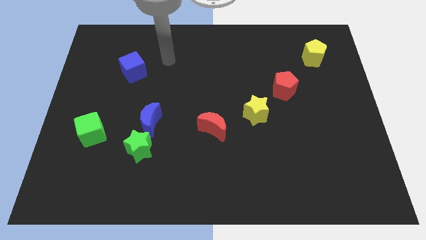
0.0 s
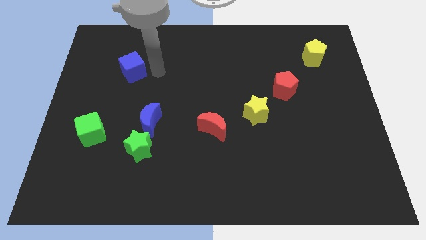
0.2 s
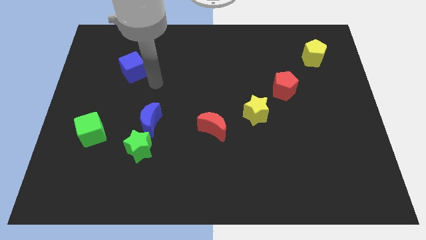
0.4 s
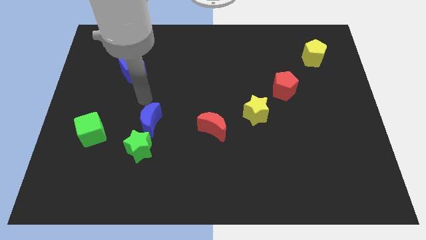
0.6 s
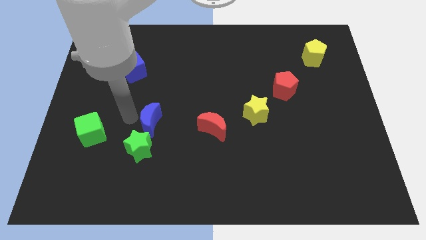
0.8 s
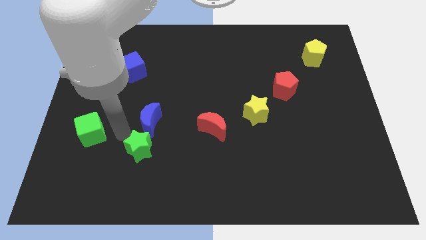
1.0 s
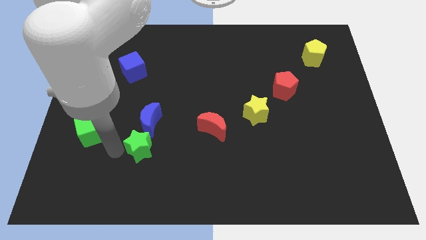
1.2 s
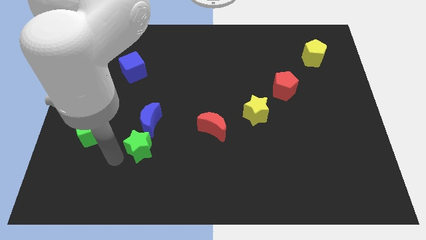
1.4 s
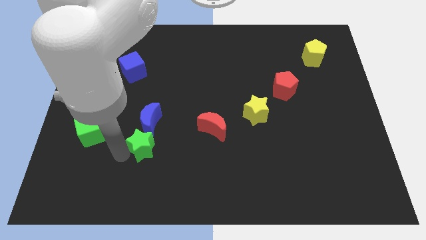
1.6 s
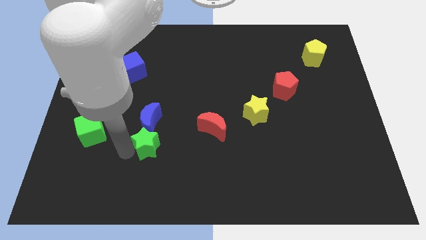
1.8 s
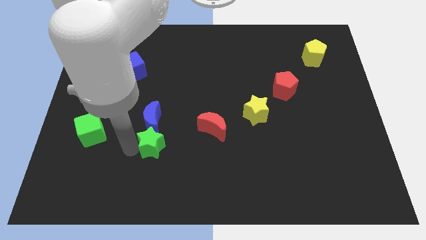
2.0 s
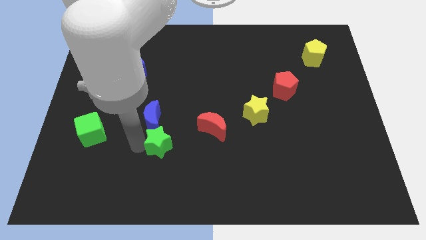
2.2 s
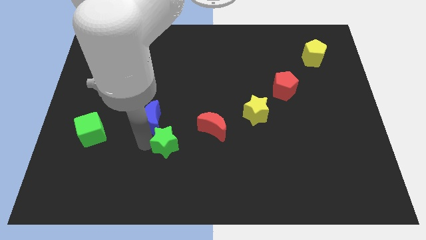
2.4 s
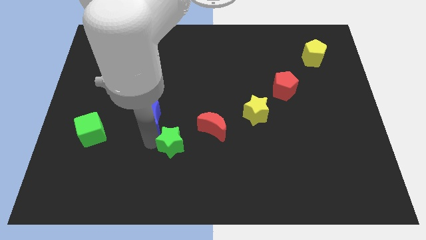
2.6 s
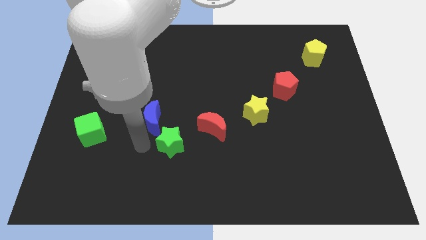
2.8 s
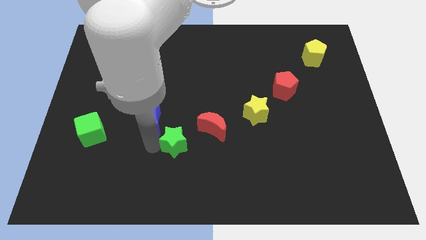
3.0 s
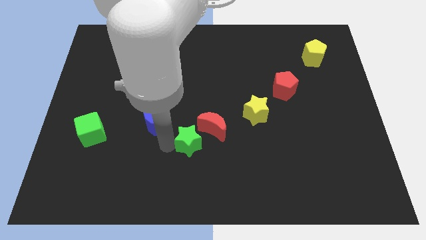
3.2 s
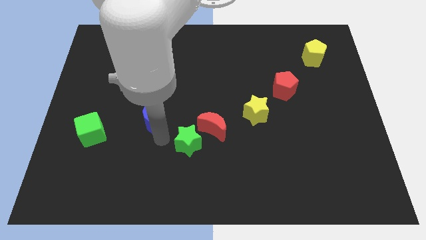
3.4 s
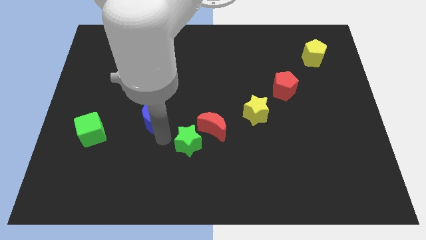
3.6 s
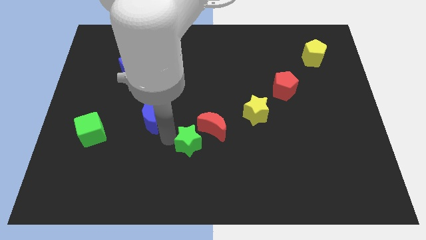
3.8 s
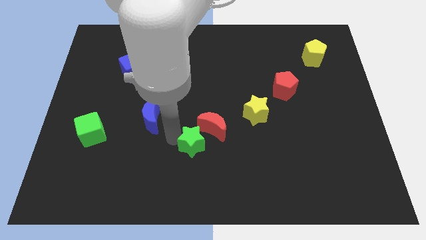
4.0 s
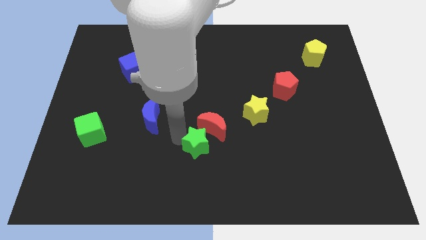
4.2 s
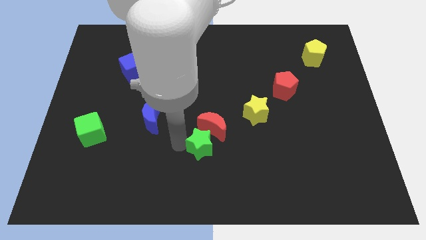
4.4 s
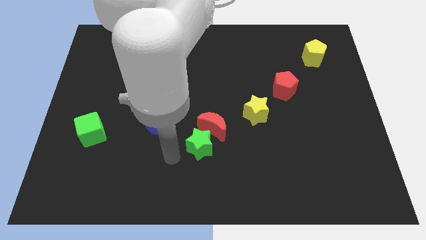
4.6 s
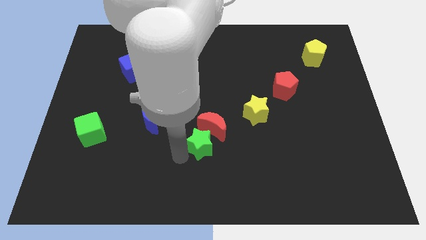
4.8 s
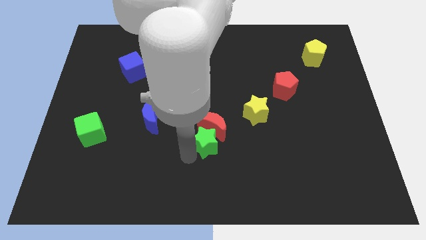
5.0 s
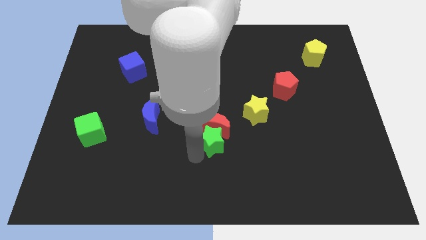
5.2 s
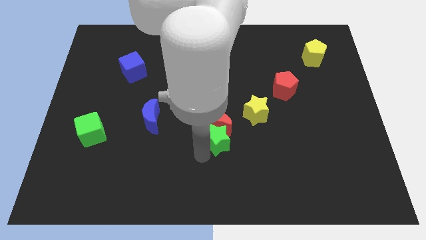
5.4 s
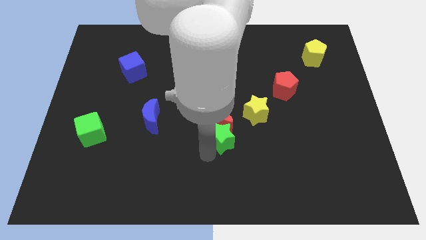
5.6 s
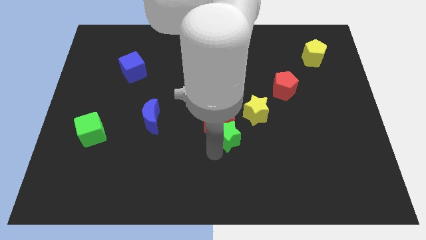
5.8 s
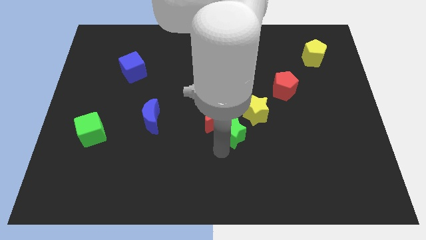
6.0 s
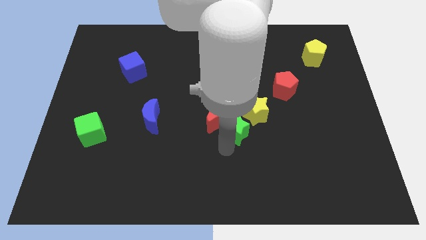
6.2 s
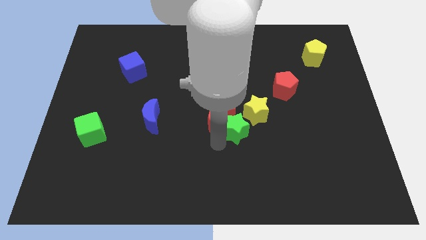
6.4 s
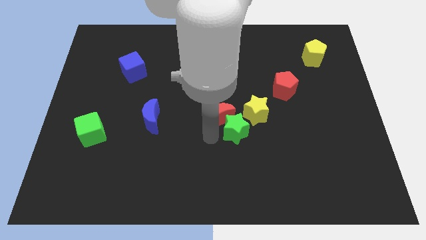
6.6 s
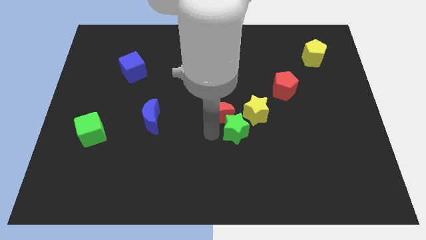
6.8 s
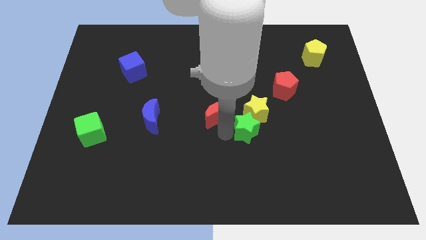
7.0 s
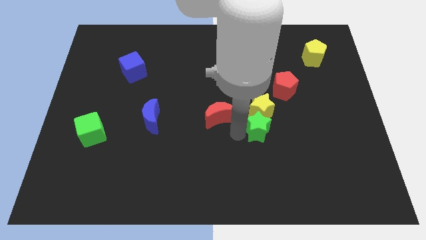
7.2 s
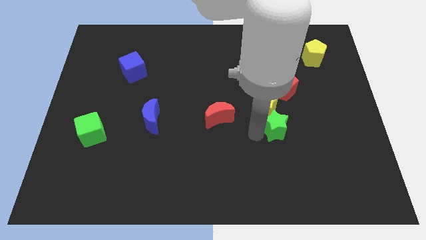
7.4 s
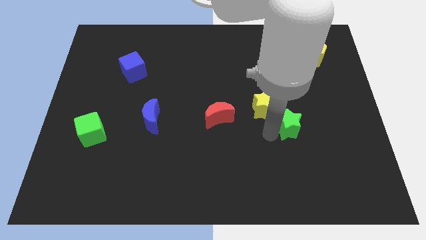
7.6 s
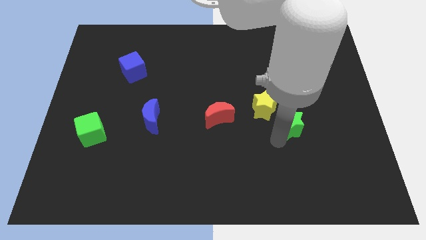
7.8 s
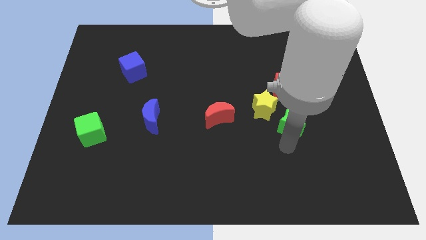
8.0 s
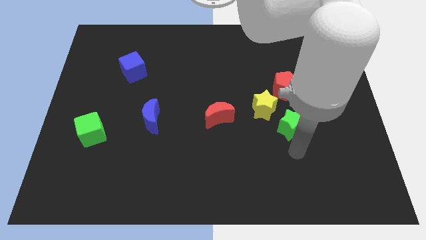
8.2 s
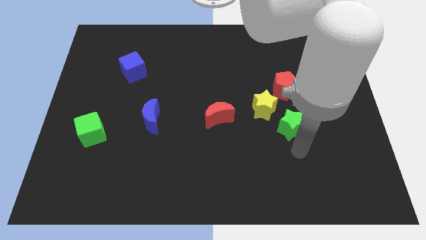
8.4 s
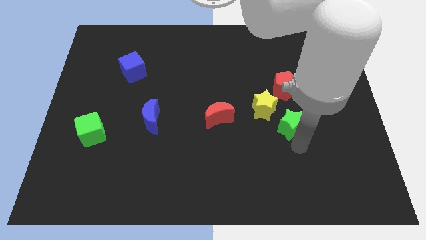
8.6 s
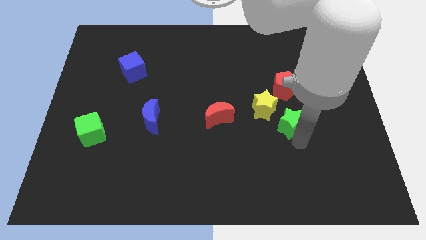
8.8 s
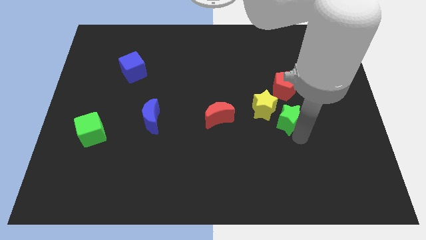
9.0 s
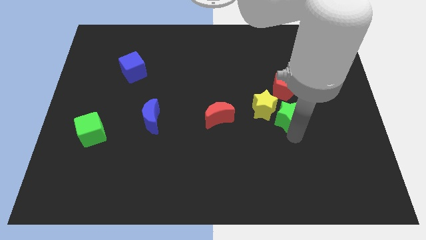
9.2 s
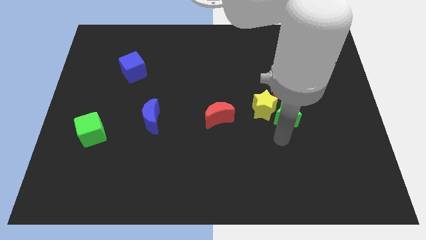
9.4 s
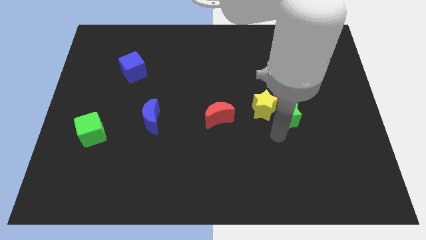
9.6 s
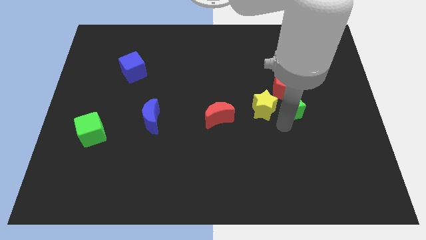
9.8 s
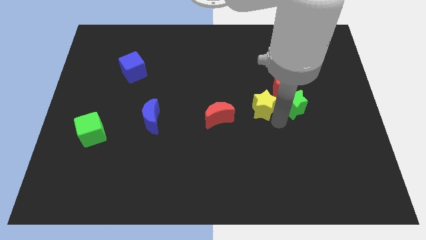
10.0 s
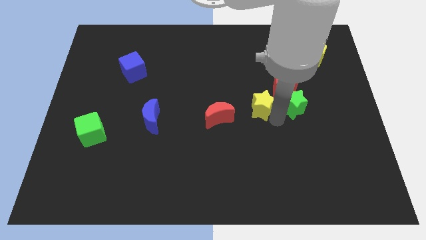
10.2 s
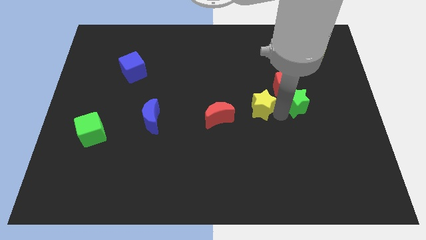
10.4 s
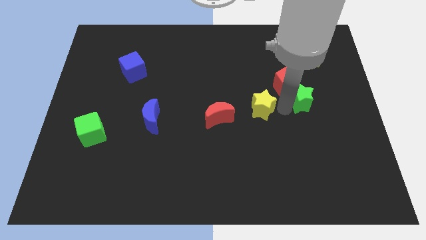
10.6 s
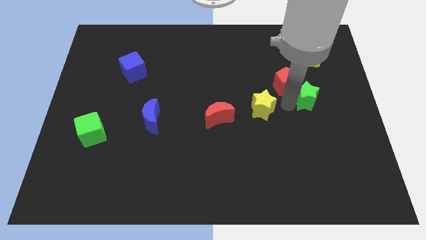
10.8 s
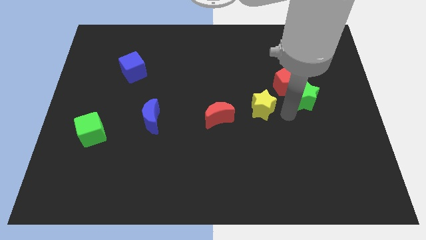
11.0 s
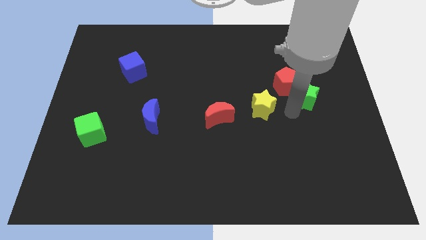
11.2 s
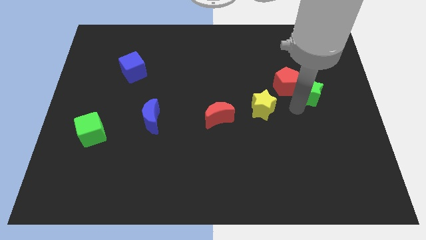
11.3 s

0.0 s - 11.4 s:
slide the green star to the bottom of the yellow pentagon
